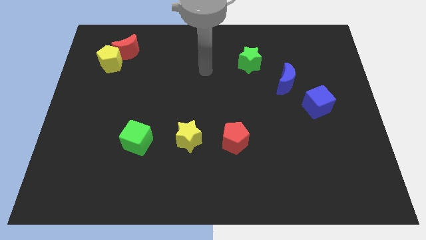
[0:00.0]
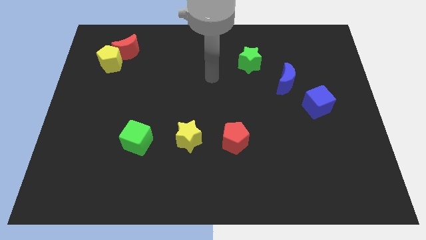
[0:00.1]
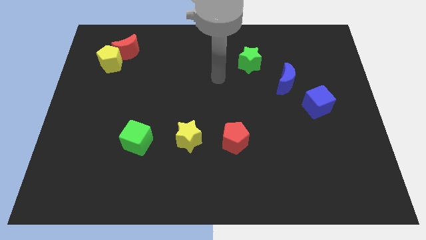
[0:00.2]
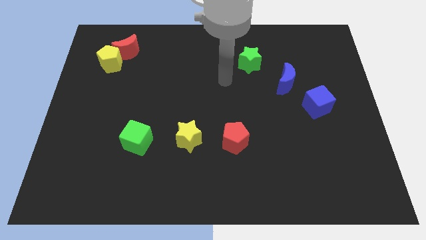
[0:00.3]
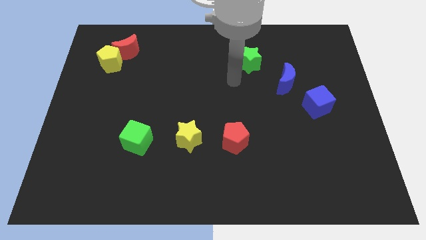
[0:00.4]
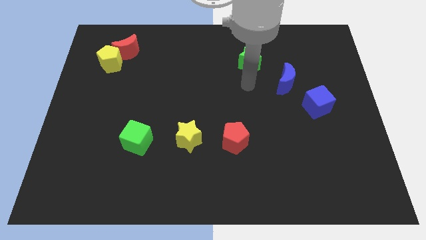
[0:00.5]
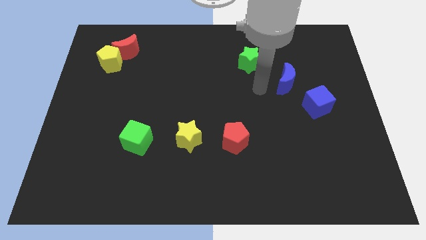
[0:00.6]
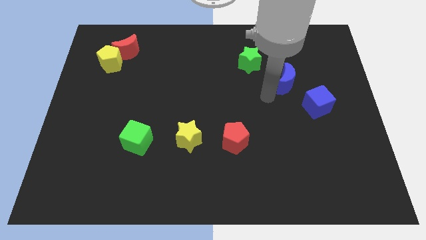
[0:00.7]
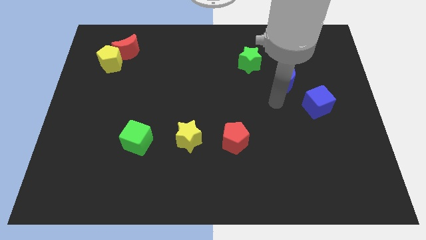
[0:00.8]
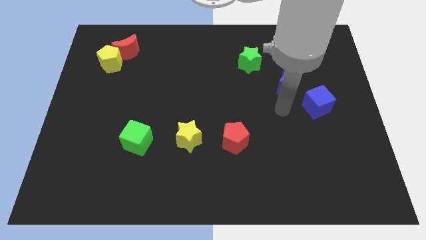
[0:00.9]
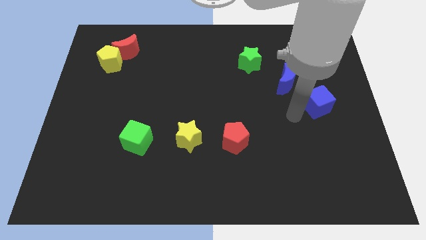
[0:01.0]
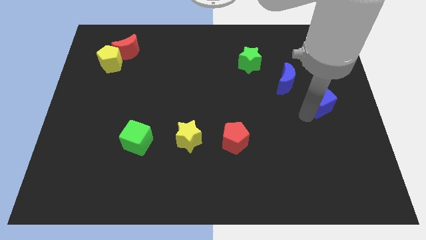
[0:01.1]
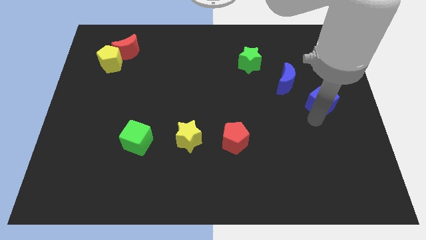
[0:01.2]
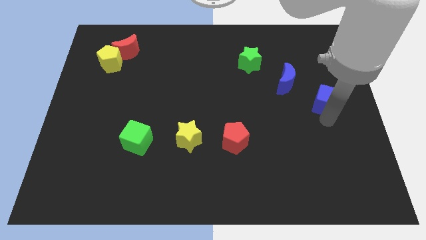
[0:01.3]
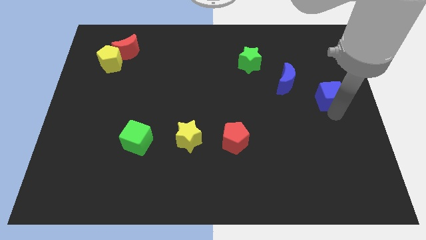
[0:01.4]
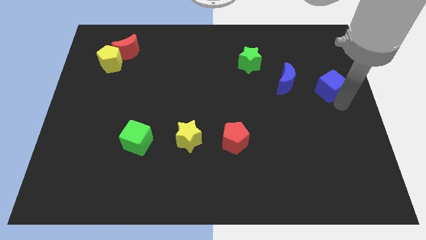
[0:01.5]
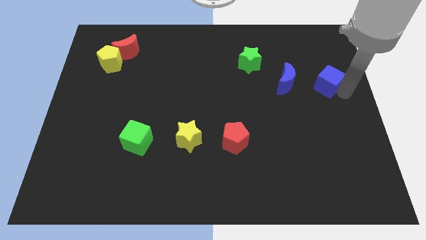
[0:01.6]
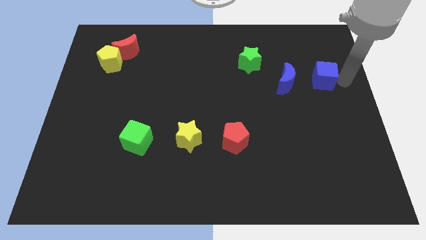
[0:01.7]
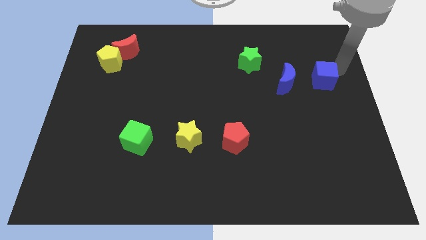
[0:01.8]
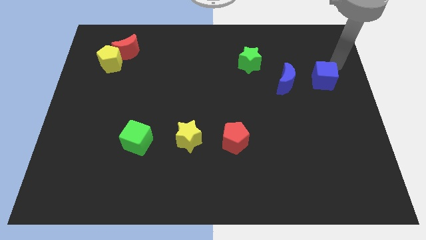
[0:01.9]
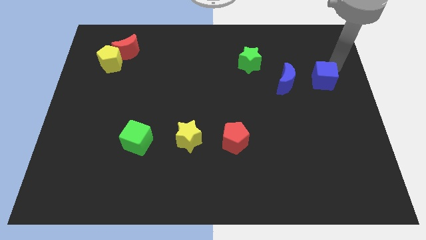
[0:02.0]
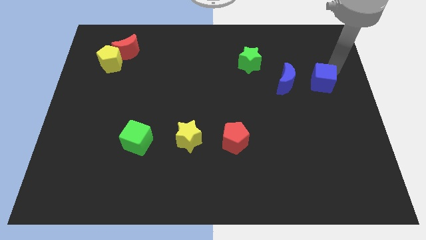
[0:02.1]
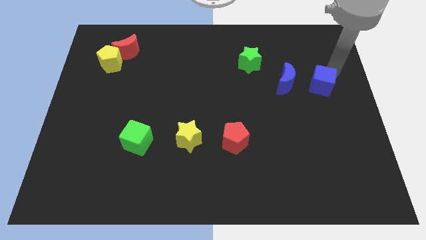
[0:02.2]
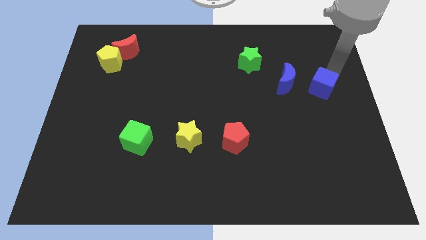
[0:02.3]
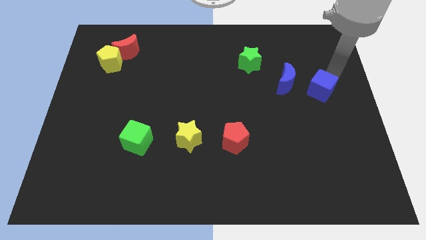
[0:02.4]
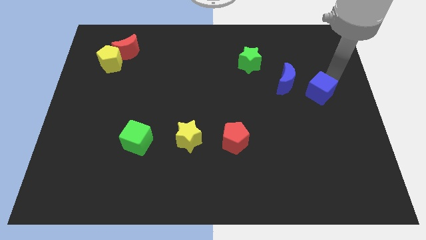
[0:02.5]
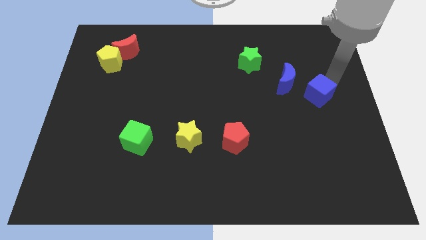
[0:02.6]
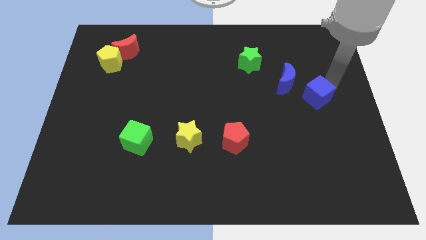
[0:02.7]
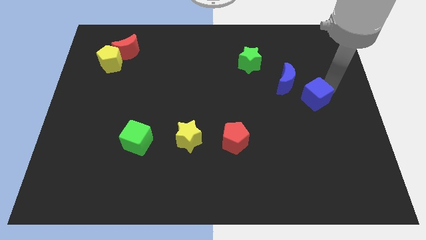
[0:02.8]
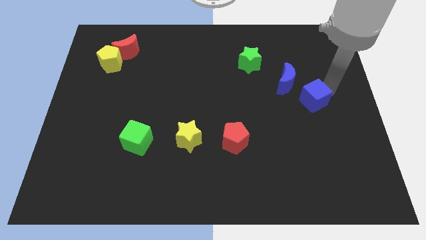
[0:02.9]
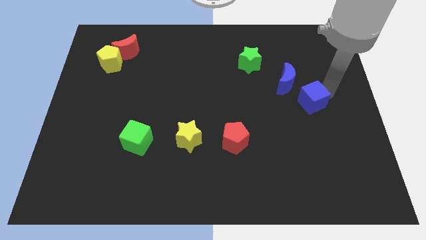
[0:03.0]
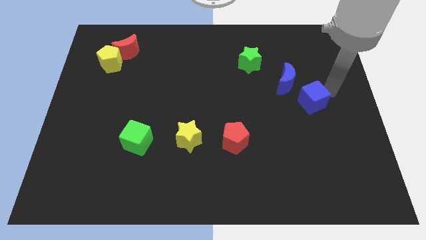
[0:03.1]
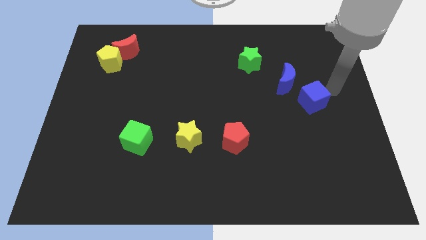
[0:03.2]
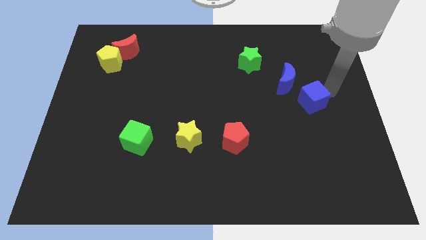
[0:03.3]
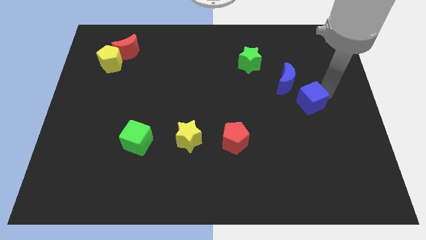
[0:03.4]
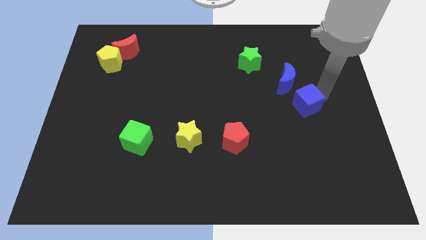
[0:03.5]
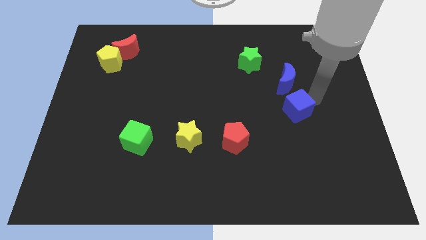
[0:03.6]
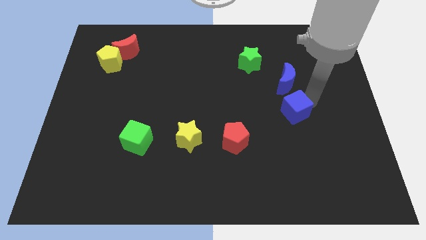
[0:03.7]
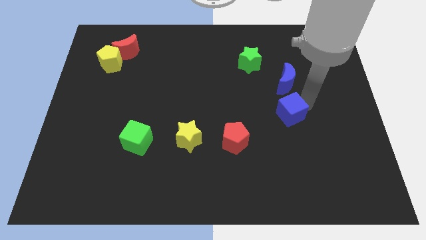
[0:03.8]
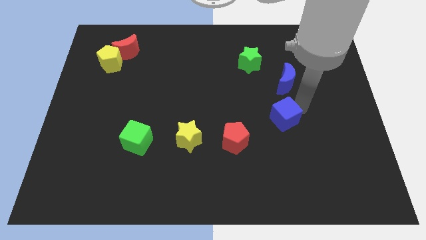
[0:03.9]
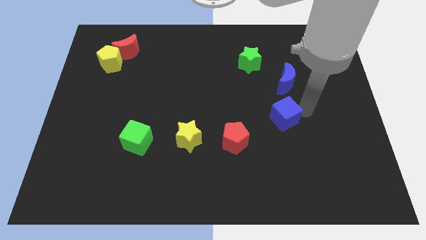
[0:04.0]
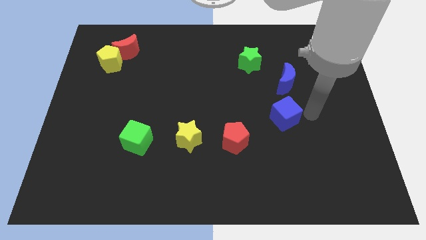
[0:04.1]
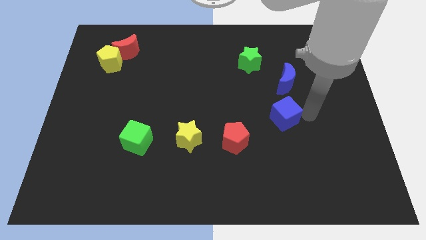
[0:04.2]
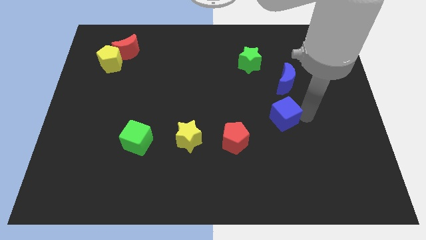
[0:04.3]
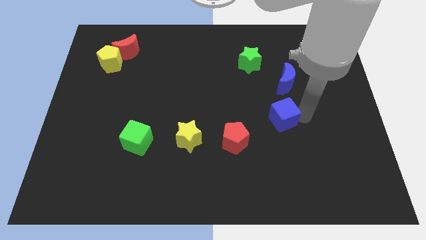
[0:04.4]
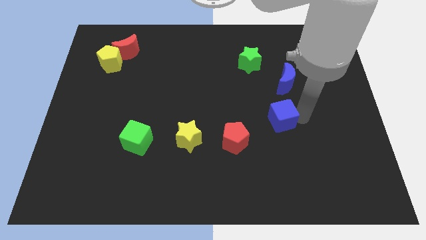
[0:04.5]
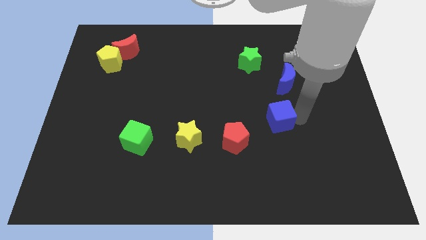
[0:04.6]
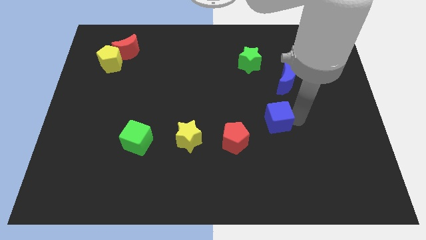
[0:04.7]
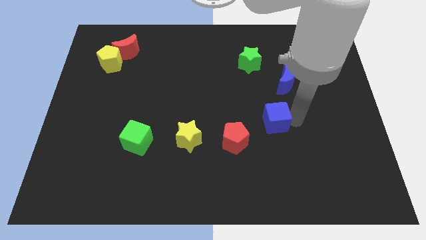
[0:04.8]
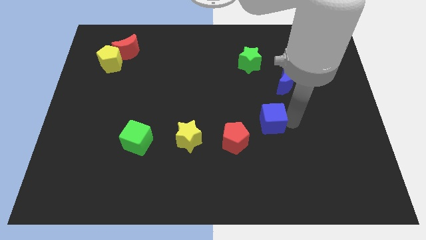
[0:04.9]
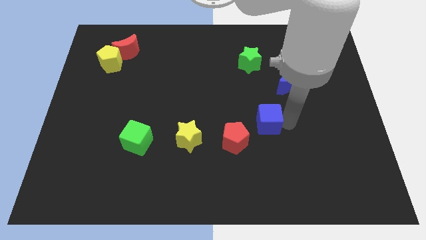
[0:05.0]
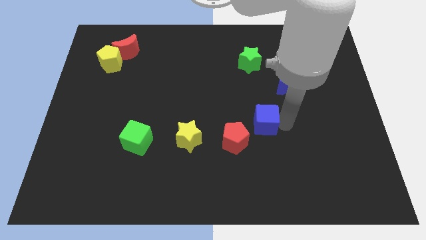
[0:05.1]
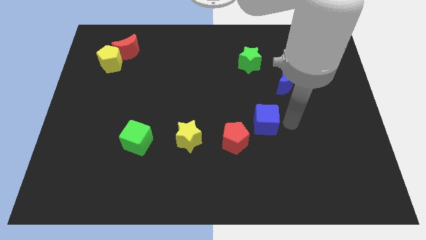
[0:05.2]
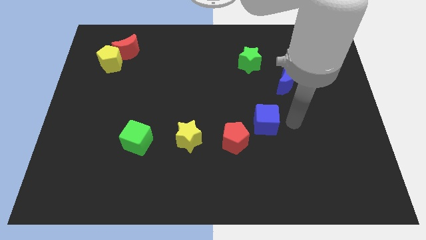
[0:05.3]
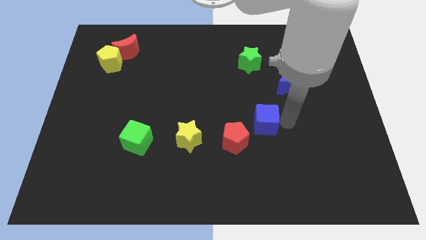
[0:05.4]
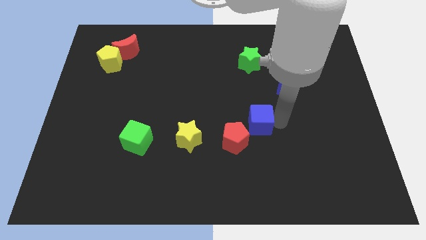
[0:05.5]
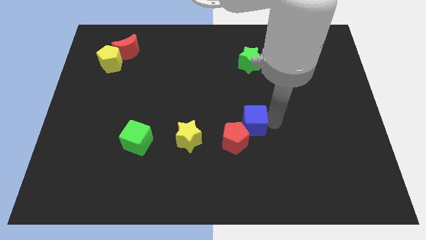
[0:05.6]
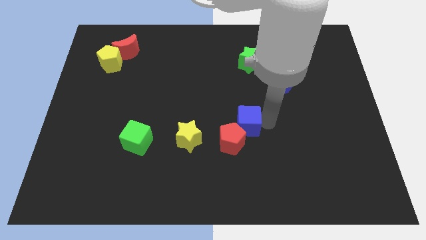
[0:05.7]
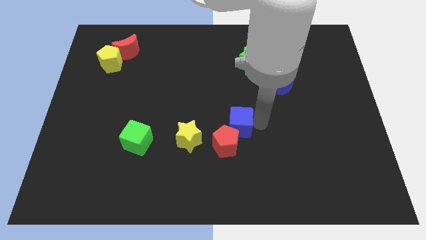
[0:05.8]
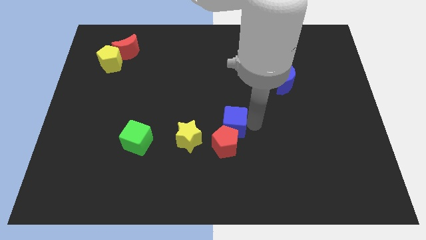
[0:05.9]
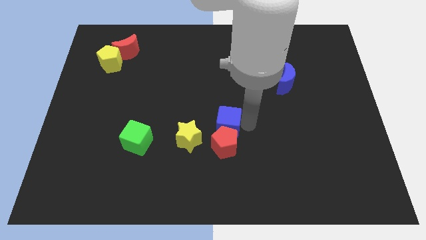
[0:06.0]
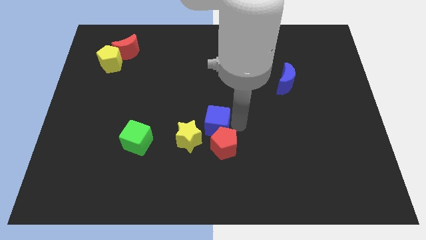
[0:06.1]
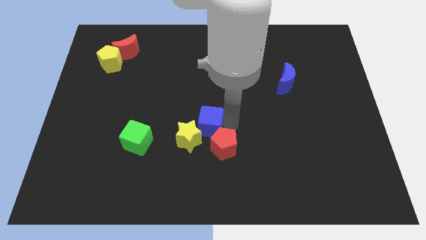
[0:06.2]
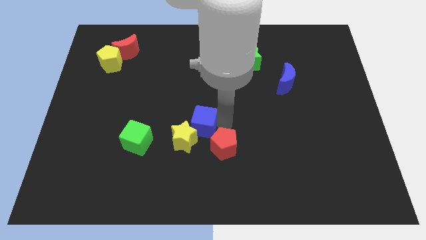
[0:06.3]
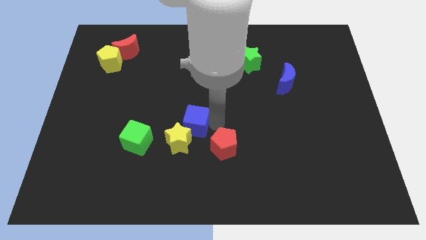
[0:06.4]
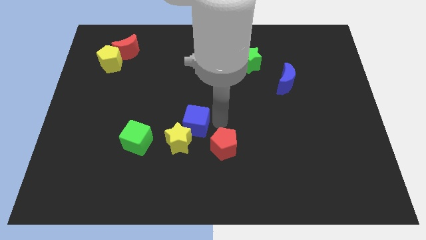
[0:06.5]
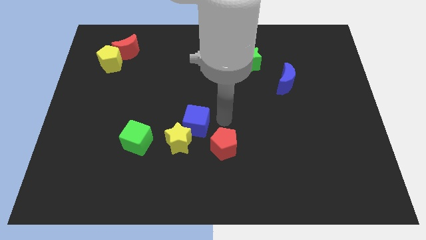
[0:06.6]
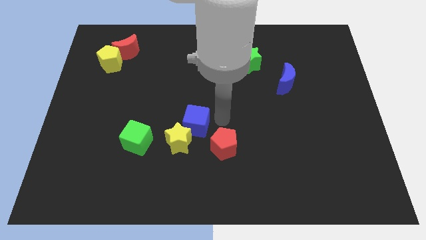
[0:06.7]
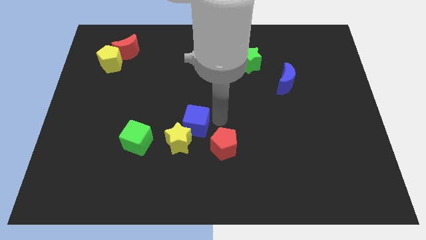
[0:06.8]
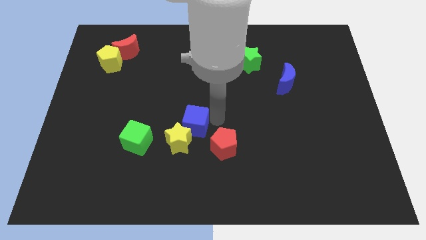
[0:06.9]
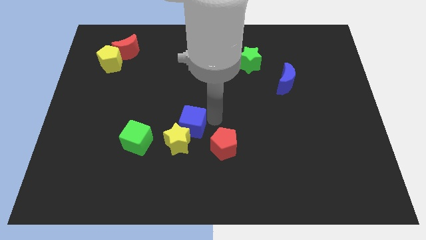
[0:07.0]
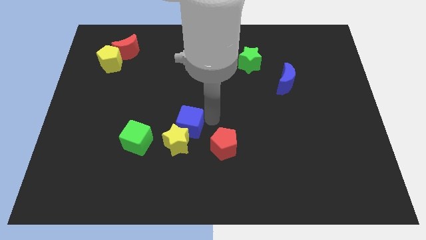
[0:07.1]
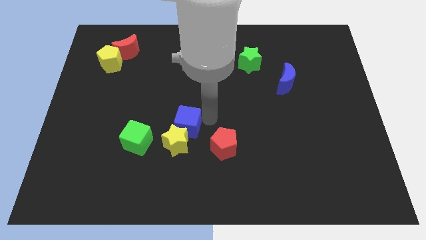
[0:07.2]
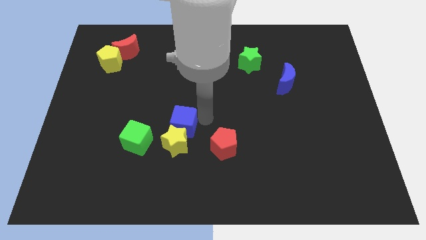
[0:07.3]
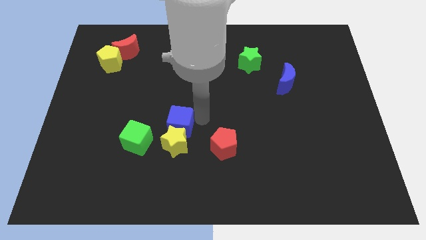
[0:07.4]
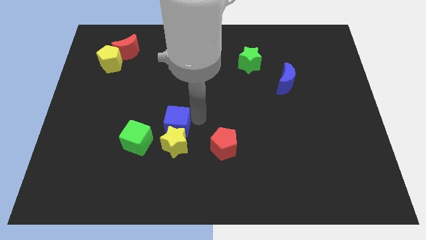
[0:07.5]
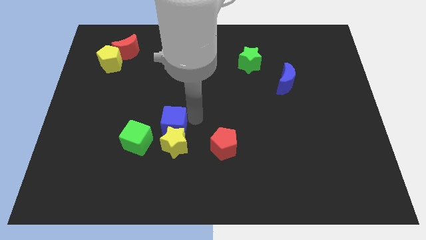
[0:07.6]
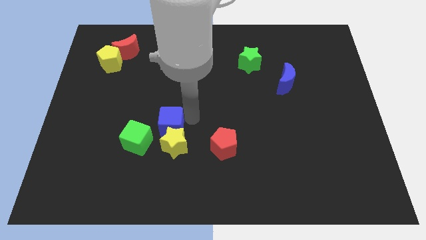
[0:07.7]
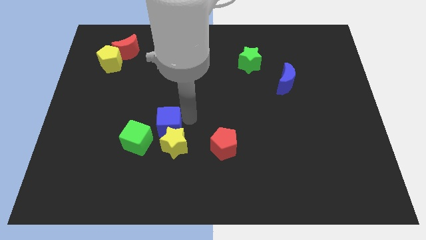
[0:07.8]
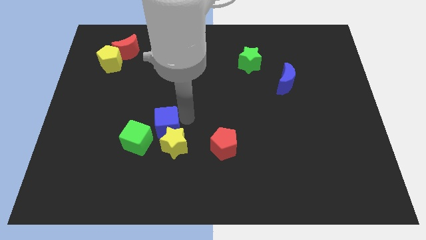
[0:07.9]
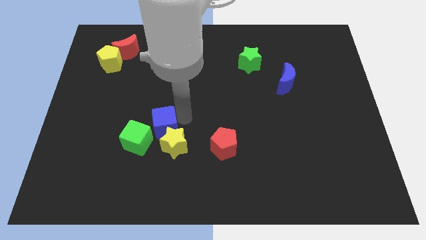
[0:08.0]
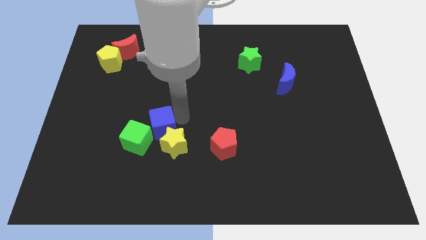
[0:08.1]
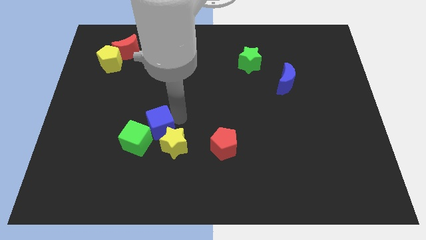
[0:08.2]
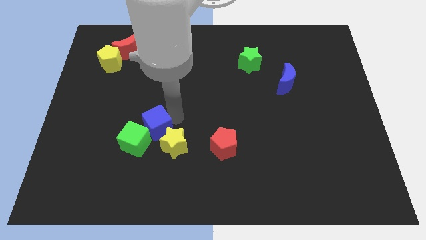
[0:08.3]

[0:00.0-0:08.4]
move the blue cube next to the green cube
